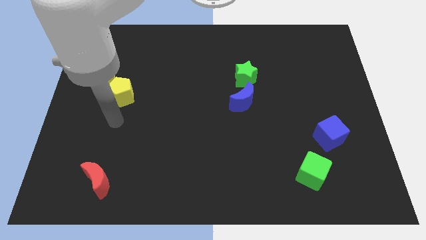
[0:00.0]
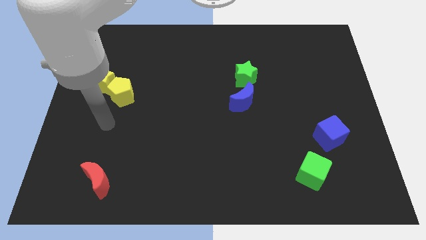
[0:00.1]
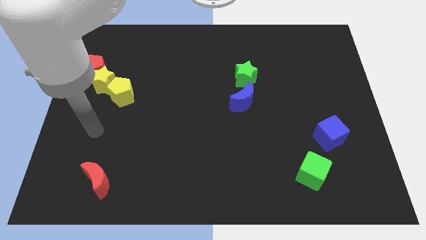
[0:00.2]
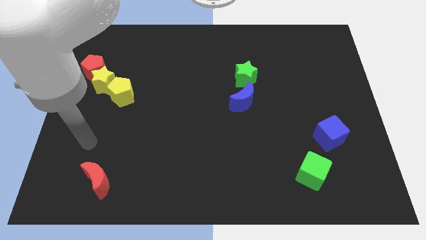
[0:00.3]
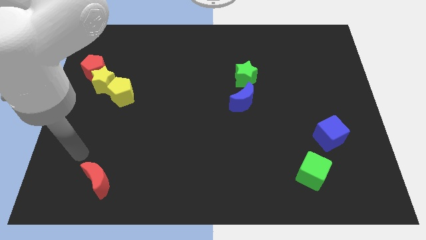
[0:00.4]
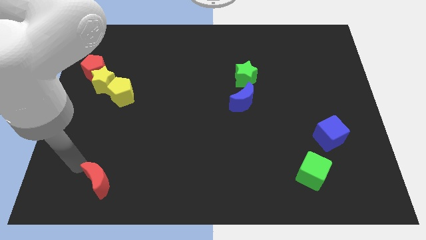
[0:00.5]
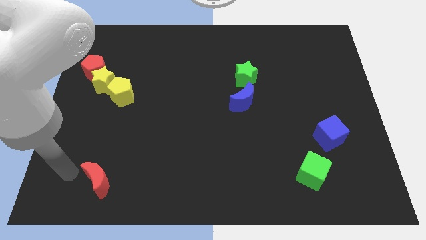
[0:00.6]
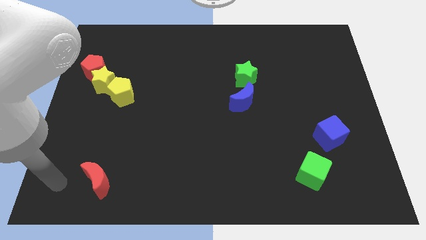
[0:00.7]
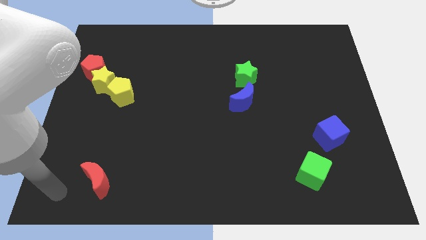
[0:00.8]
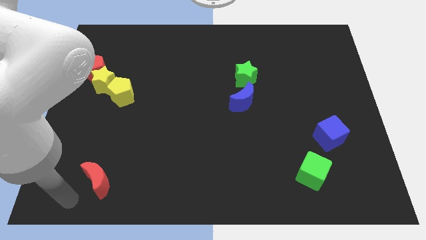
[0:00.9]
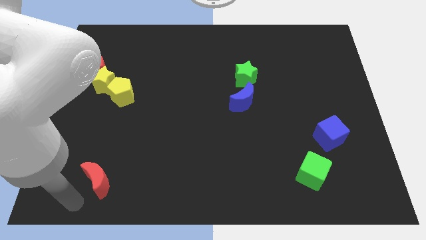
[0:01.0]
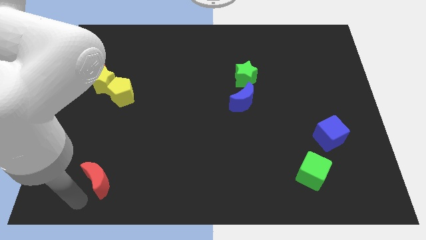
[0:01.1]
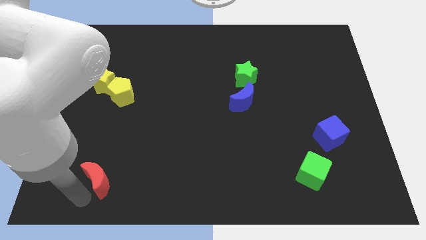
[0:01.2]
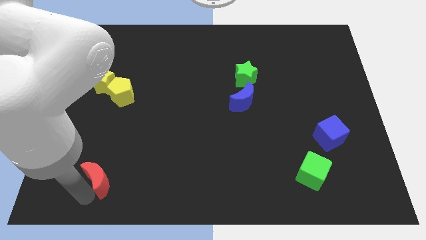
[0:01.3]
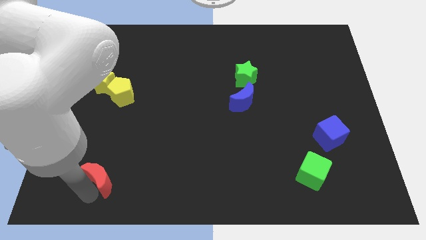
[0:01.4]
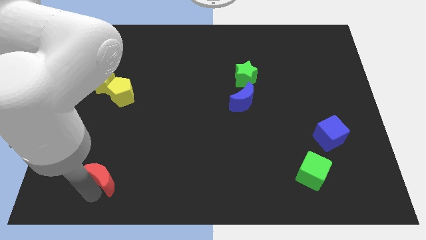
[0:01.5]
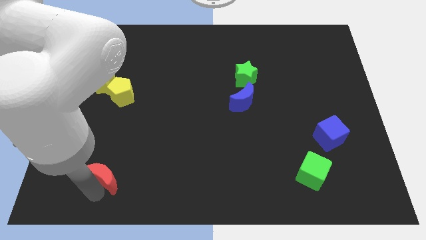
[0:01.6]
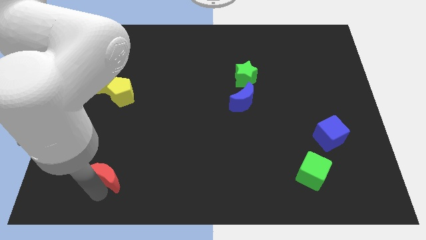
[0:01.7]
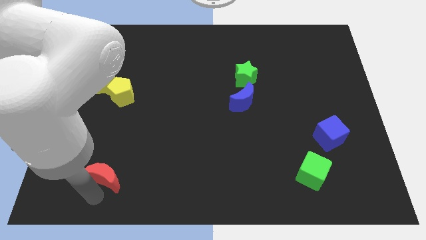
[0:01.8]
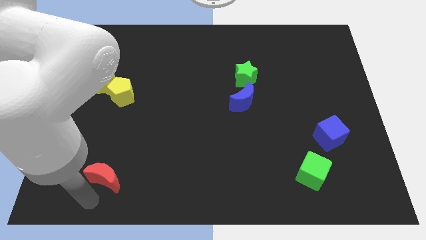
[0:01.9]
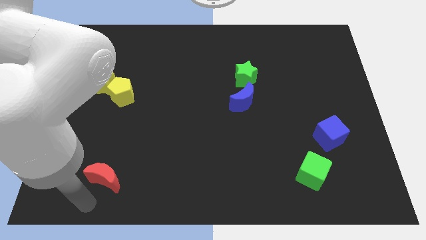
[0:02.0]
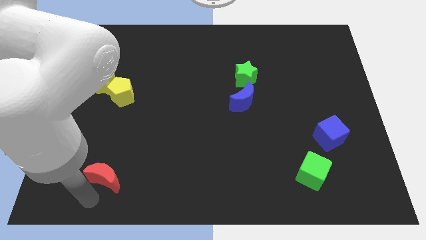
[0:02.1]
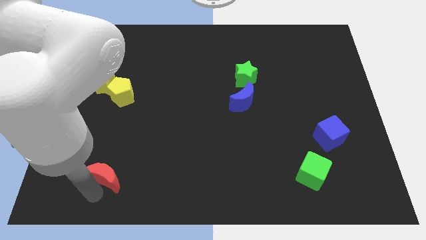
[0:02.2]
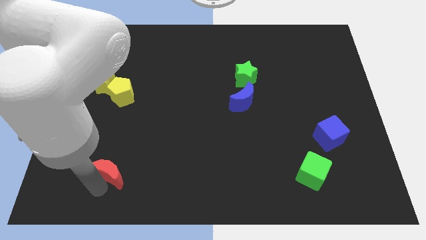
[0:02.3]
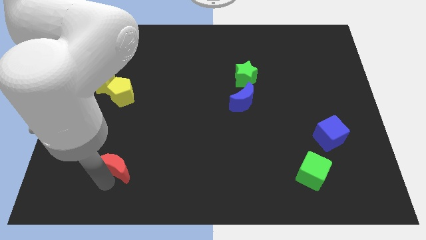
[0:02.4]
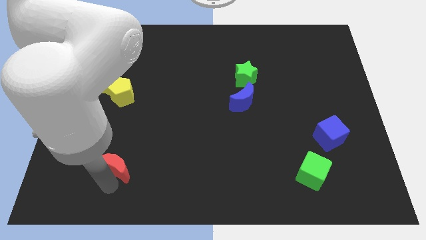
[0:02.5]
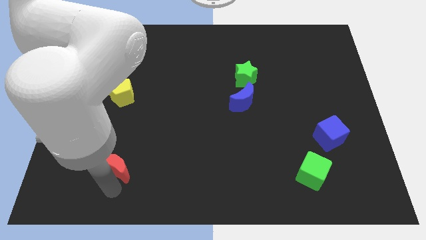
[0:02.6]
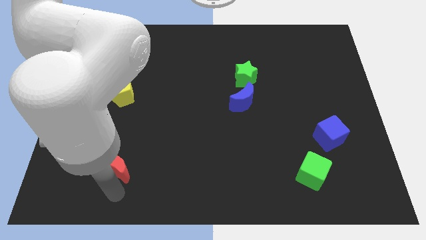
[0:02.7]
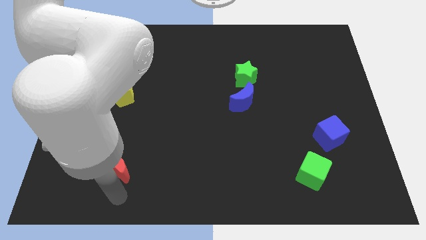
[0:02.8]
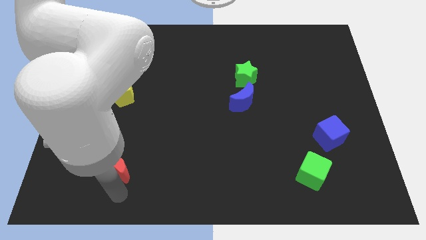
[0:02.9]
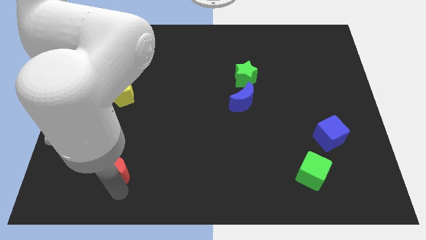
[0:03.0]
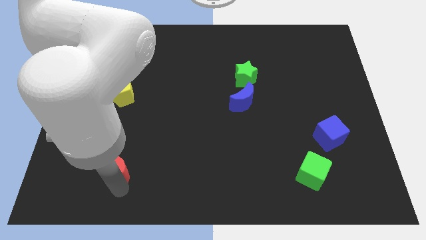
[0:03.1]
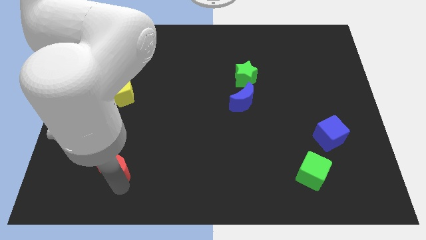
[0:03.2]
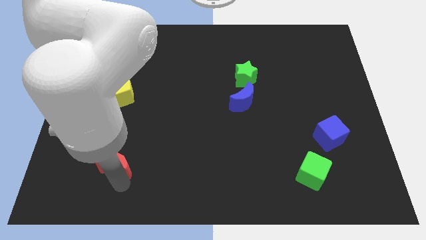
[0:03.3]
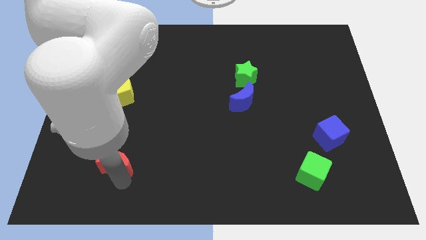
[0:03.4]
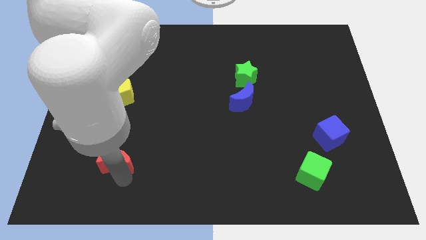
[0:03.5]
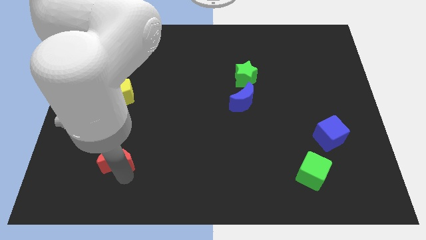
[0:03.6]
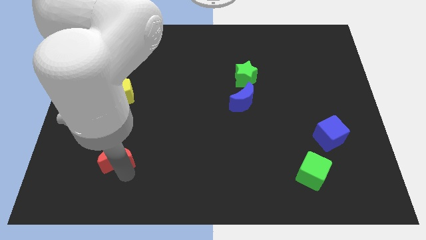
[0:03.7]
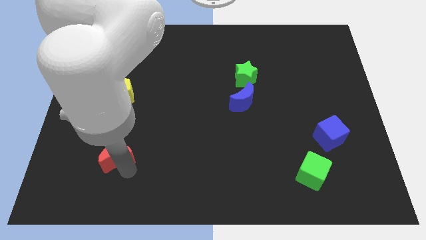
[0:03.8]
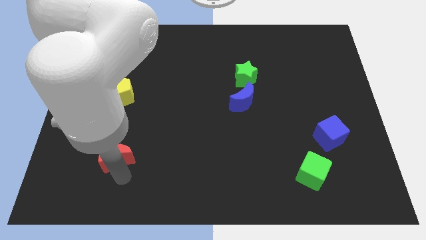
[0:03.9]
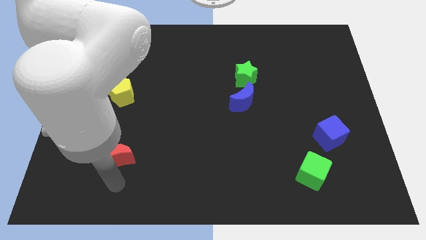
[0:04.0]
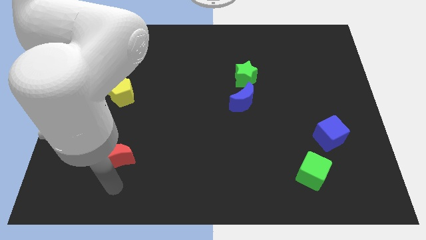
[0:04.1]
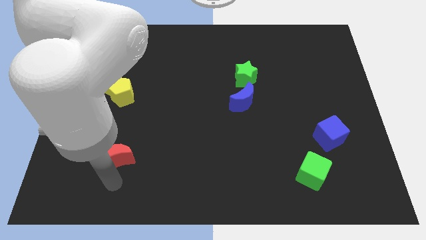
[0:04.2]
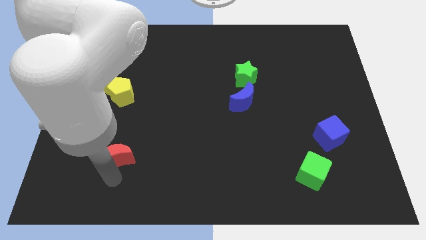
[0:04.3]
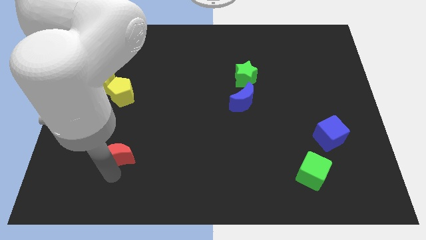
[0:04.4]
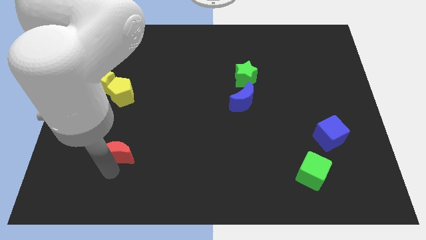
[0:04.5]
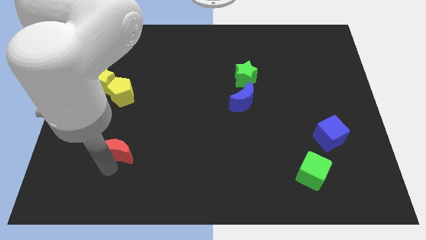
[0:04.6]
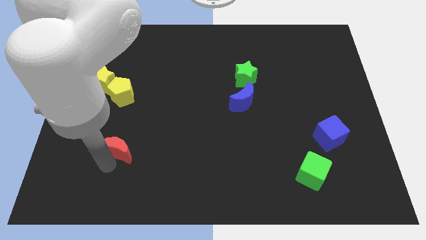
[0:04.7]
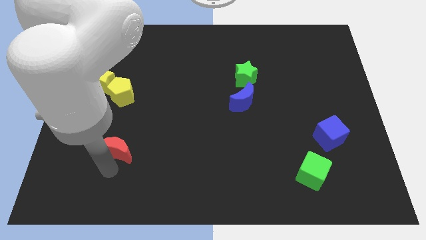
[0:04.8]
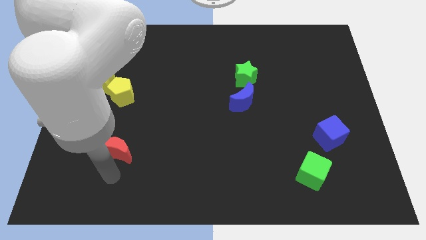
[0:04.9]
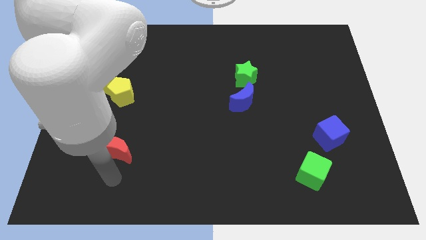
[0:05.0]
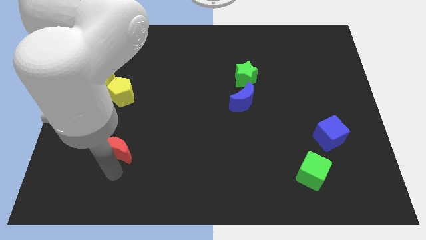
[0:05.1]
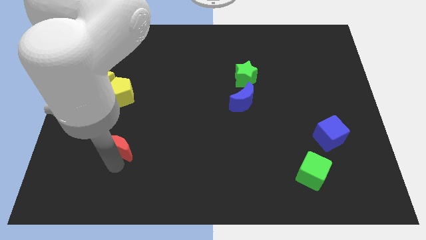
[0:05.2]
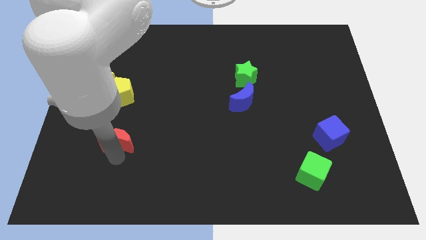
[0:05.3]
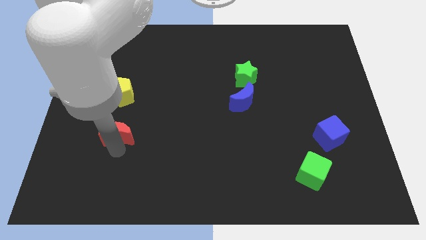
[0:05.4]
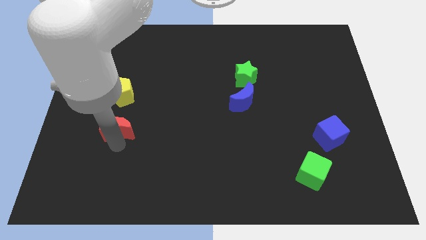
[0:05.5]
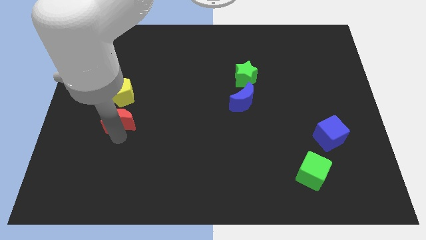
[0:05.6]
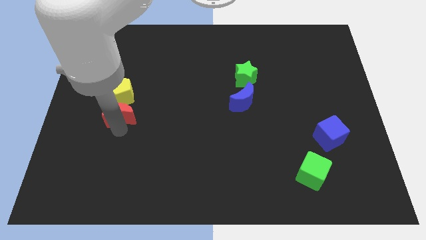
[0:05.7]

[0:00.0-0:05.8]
push the red moon diagonally down and to the right of the yellow star

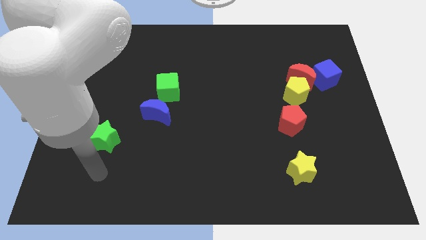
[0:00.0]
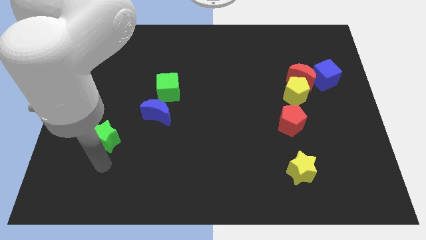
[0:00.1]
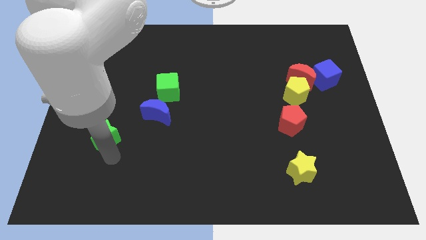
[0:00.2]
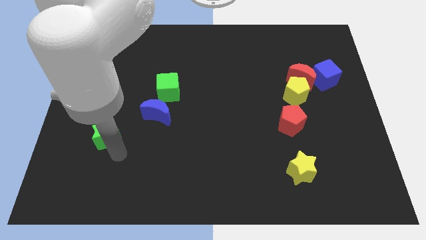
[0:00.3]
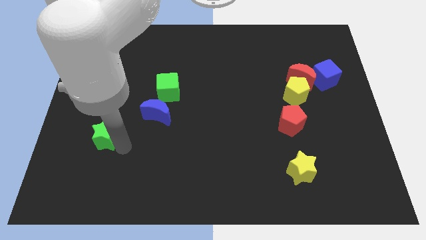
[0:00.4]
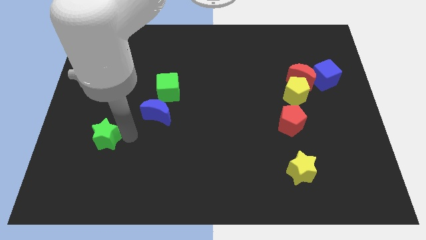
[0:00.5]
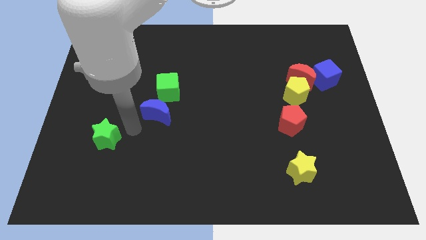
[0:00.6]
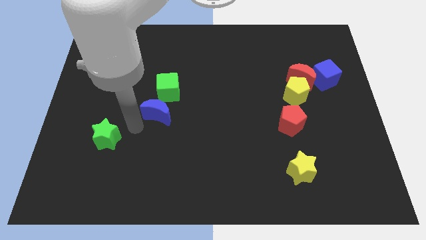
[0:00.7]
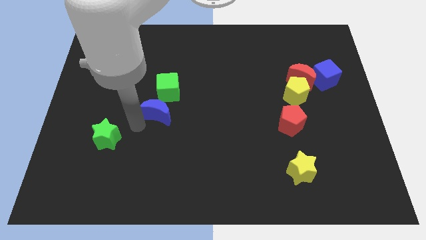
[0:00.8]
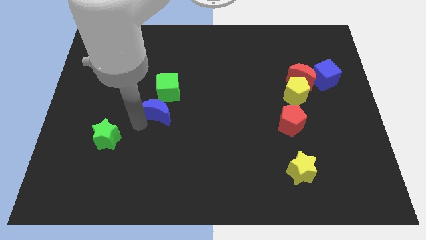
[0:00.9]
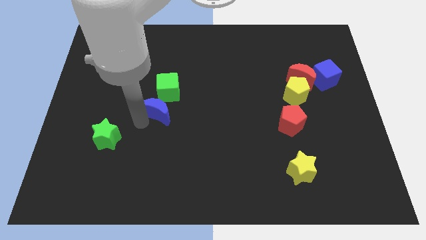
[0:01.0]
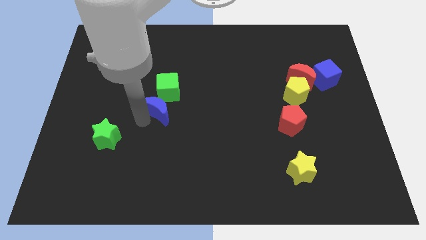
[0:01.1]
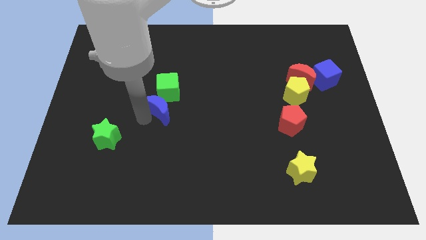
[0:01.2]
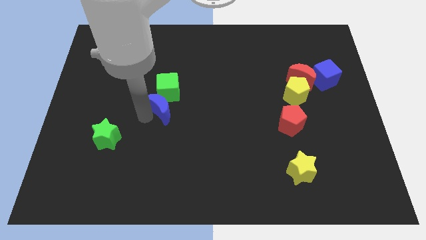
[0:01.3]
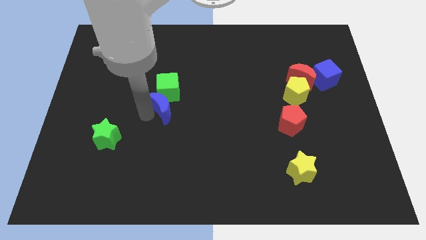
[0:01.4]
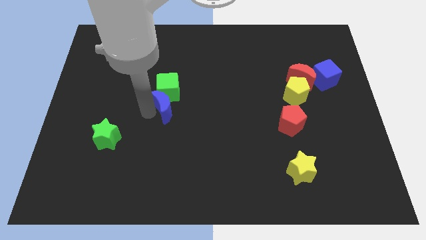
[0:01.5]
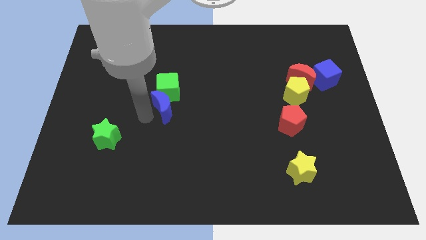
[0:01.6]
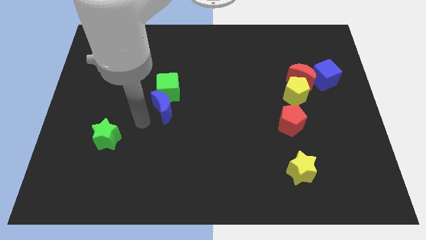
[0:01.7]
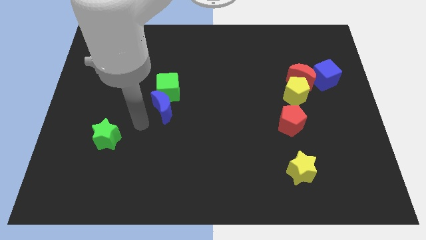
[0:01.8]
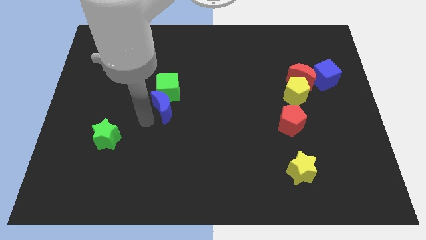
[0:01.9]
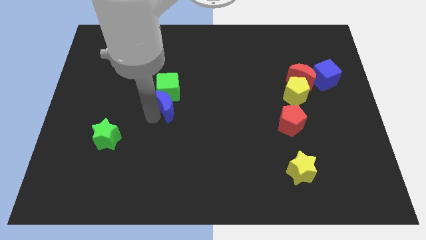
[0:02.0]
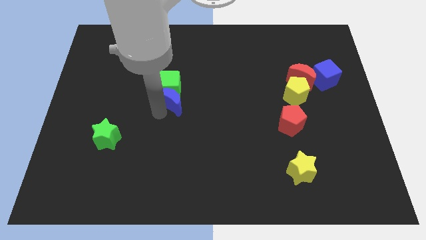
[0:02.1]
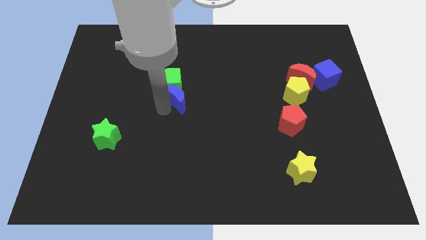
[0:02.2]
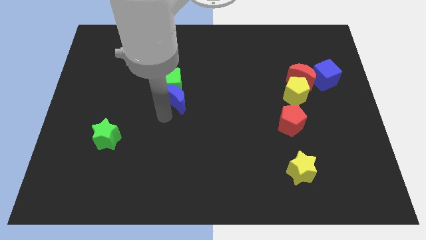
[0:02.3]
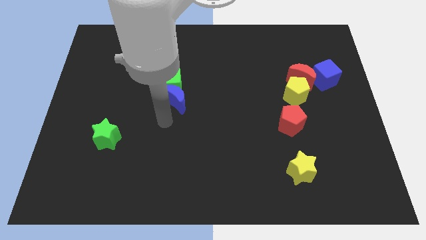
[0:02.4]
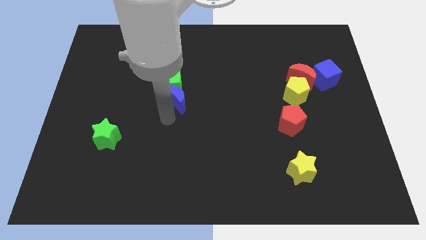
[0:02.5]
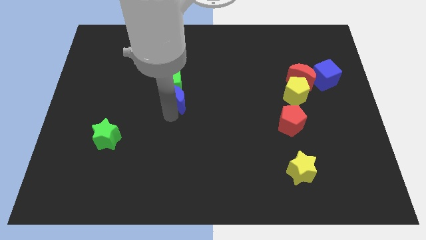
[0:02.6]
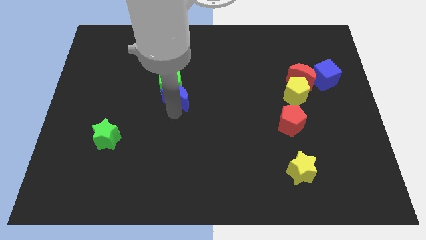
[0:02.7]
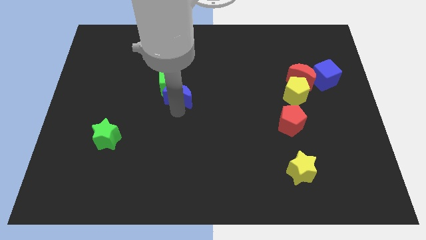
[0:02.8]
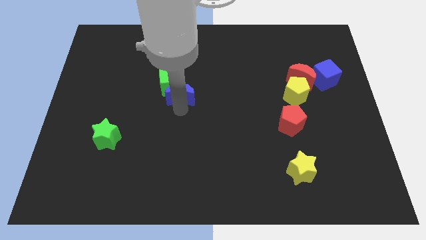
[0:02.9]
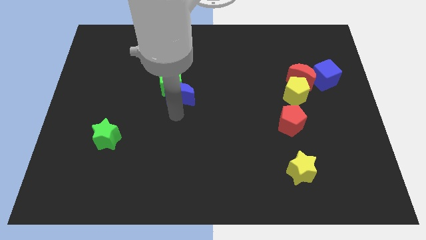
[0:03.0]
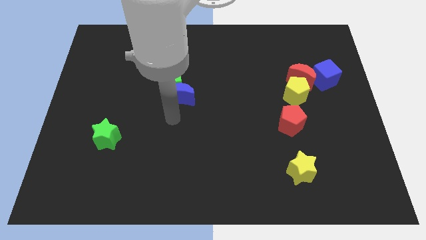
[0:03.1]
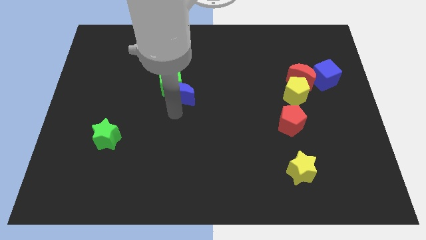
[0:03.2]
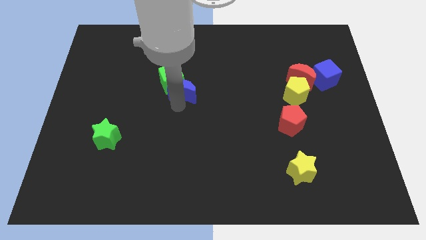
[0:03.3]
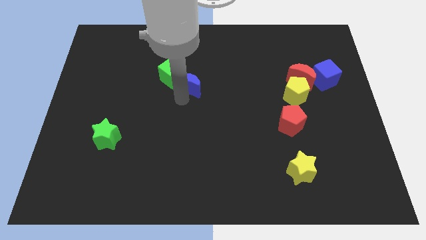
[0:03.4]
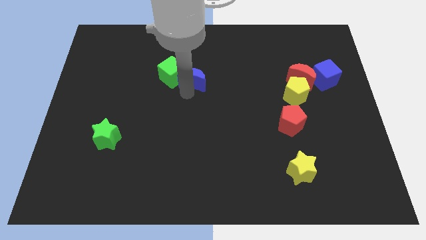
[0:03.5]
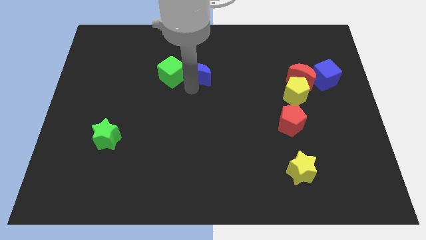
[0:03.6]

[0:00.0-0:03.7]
put the blue moon to the top right of the green cube
